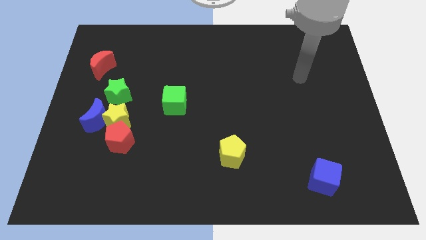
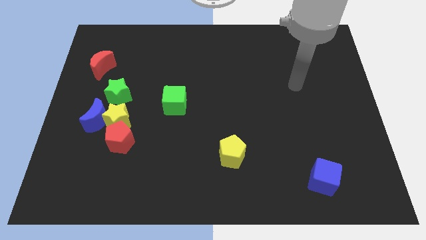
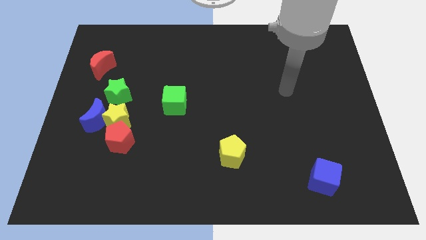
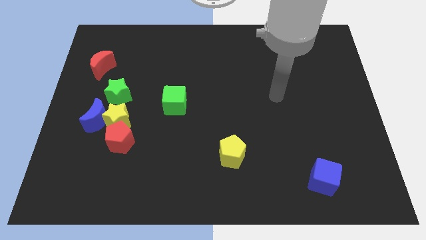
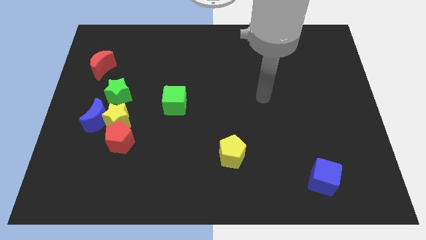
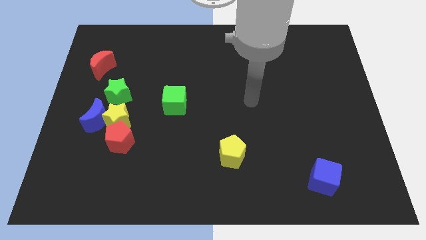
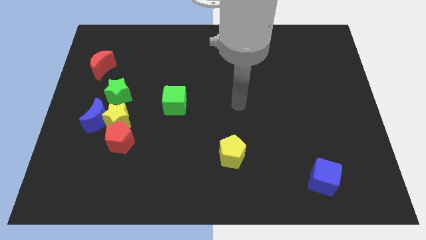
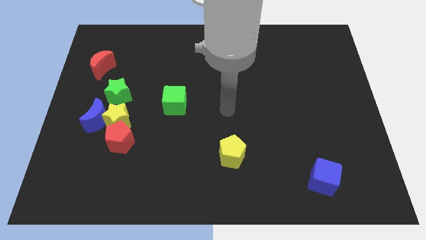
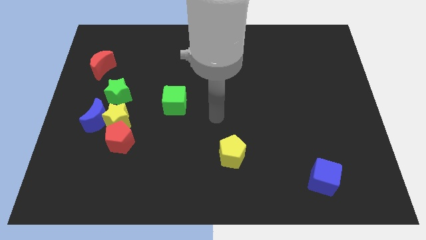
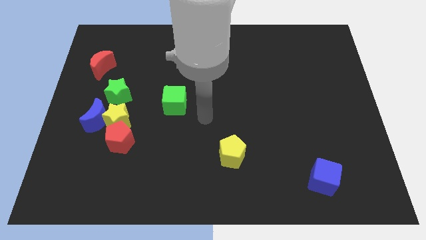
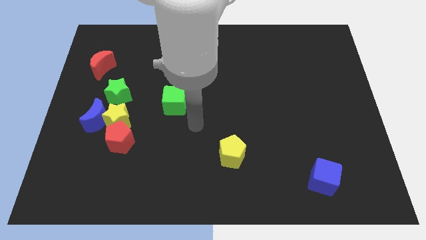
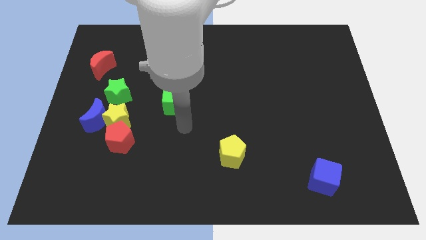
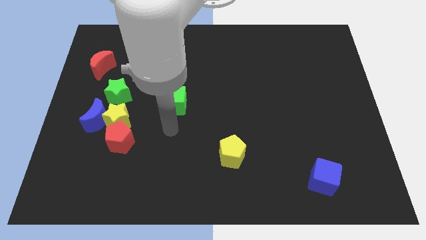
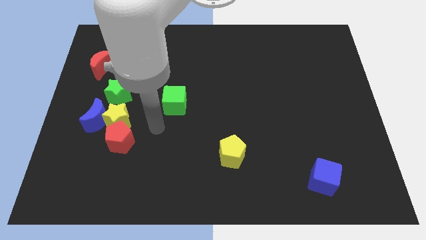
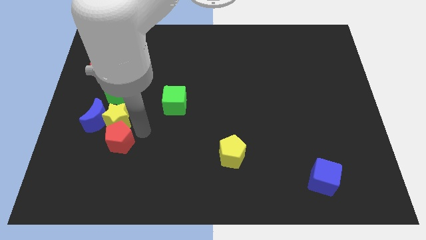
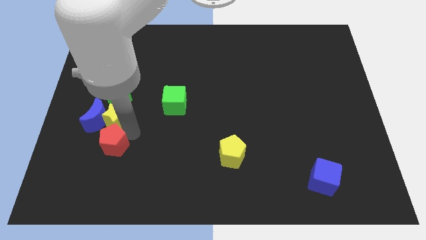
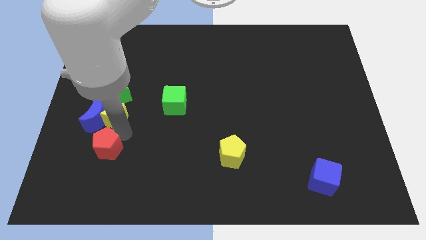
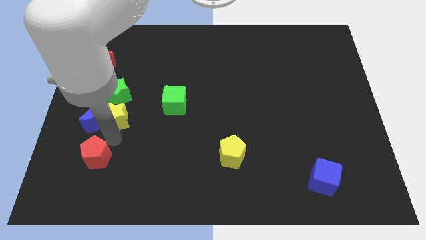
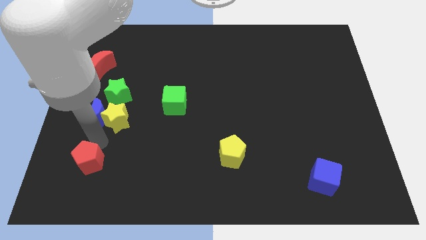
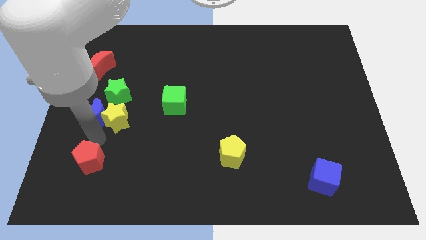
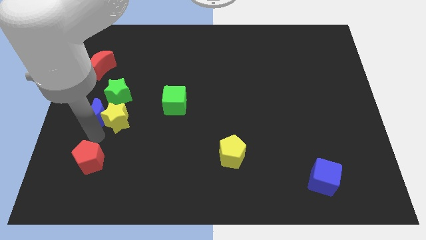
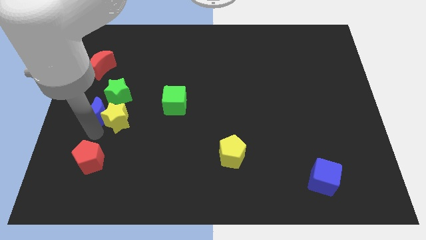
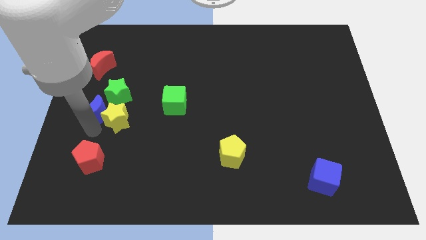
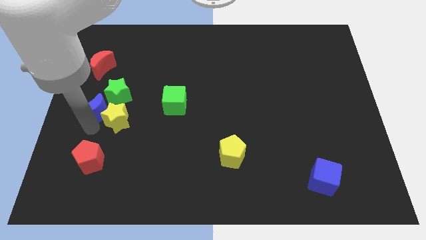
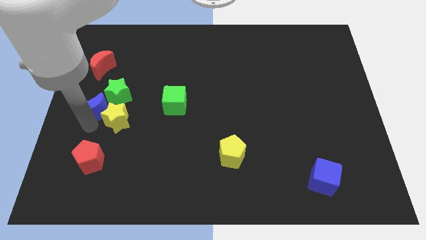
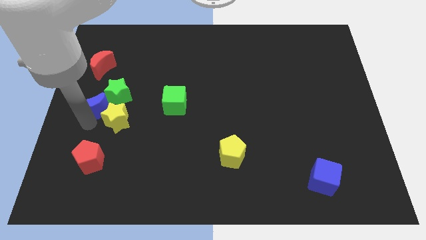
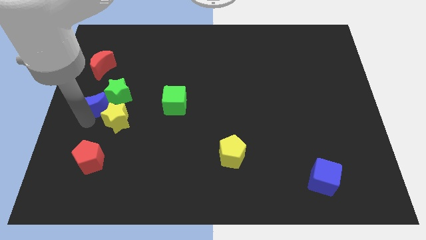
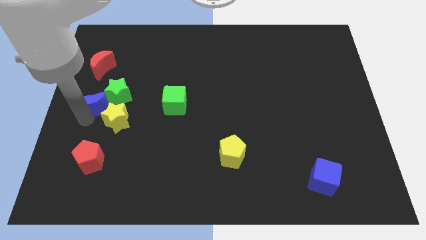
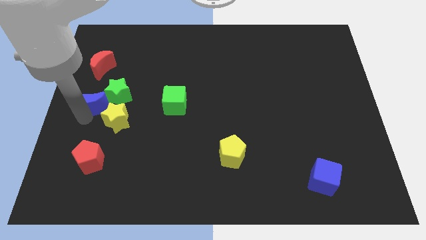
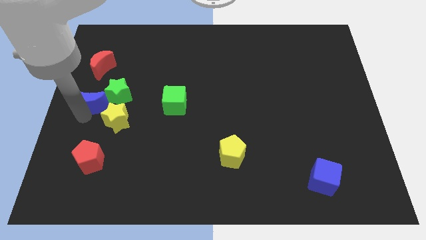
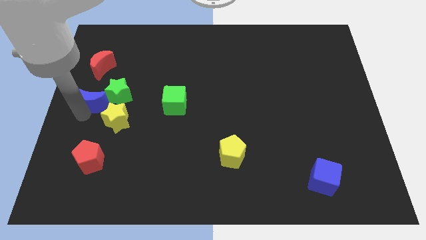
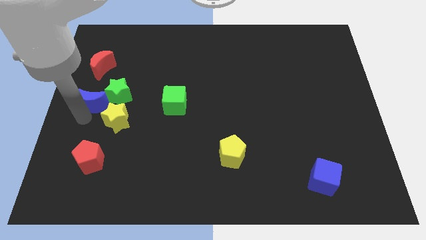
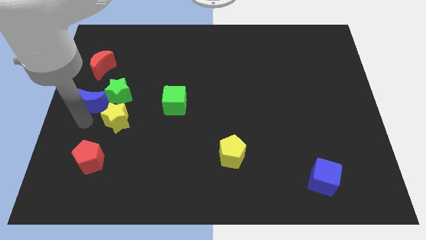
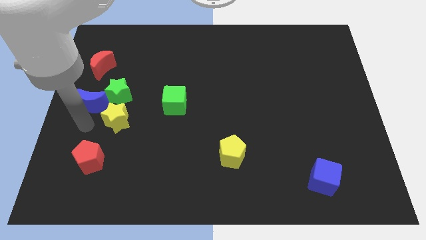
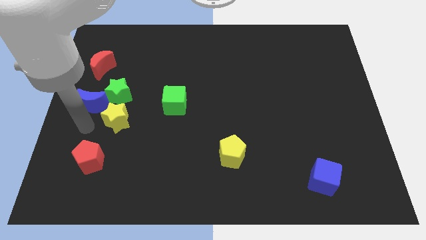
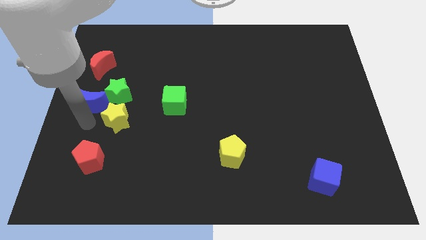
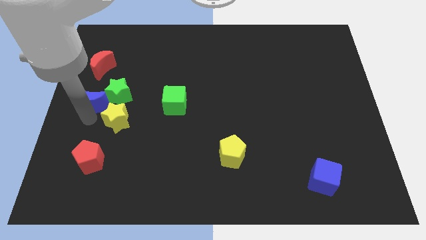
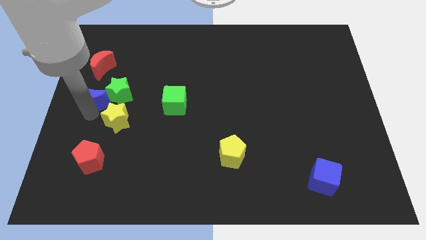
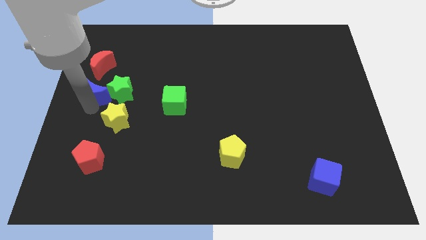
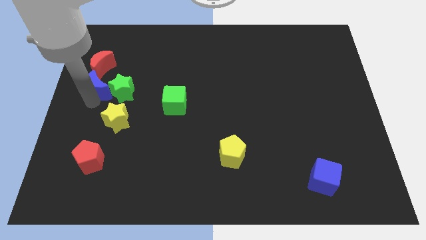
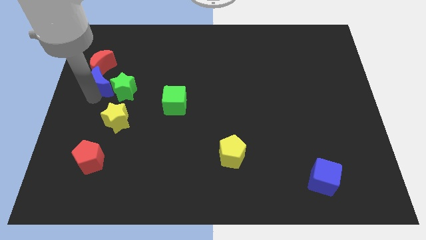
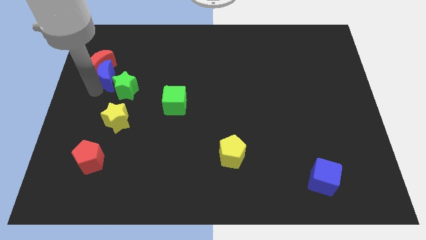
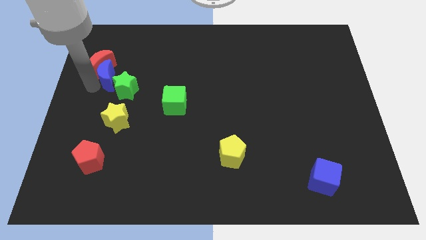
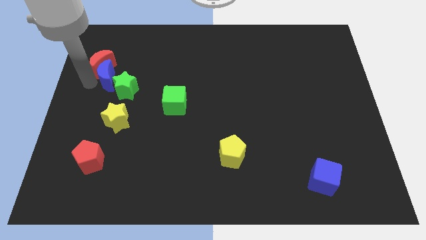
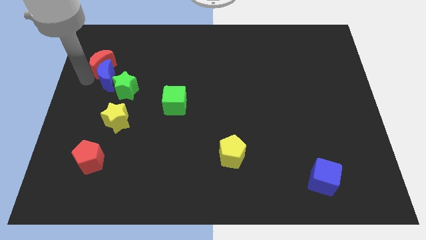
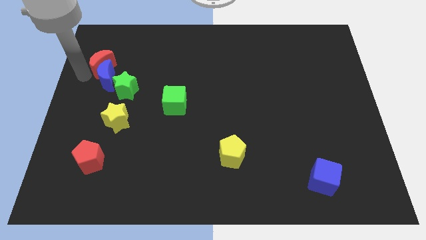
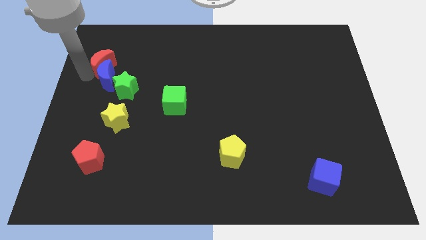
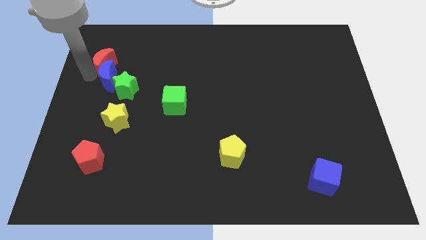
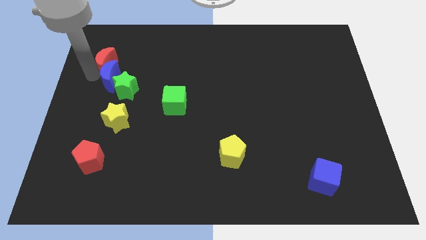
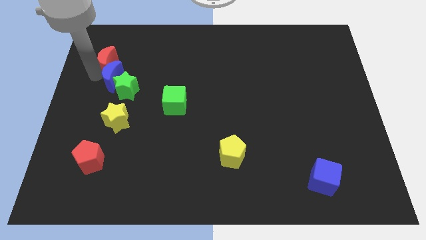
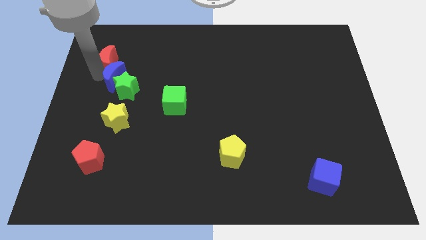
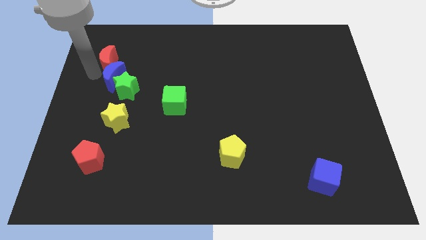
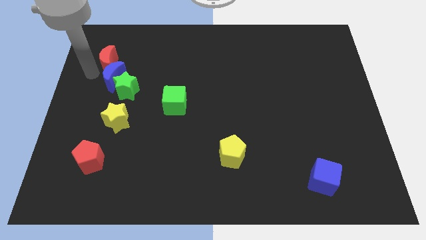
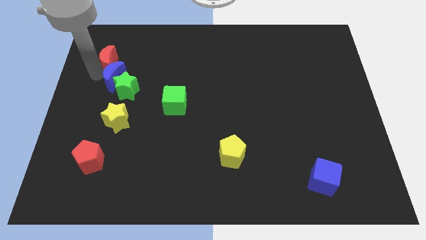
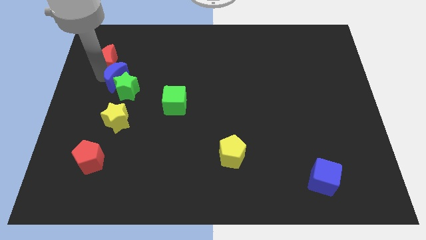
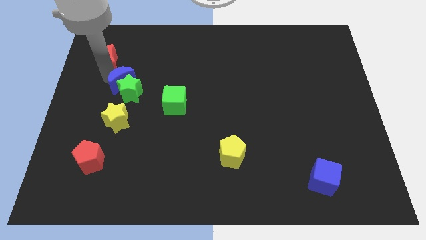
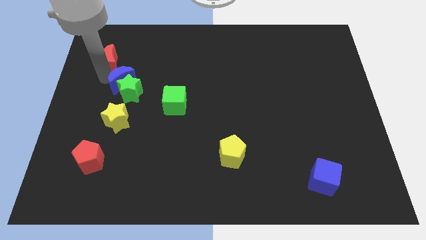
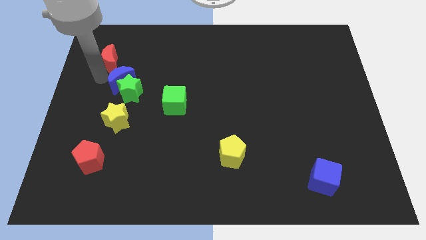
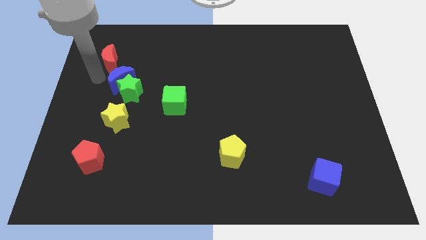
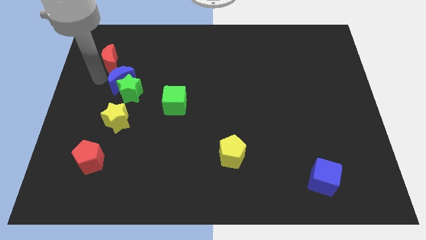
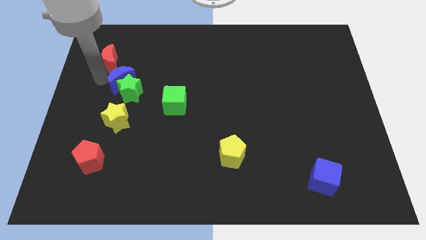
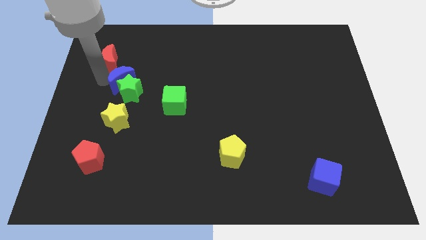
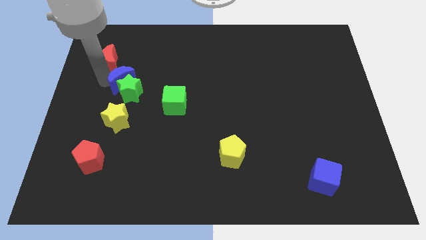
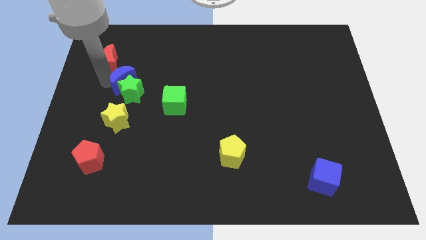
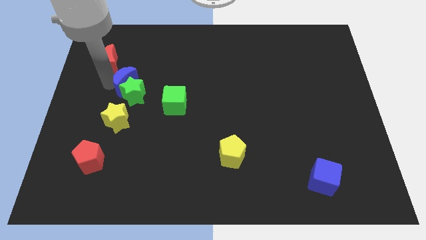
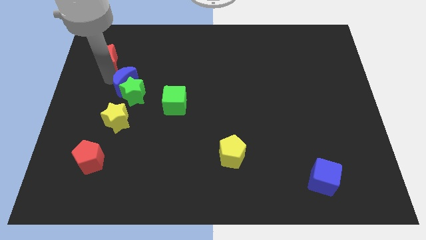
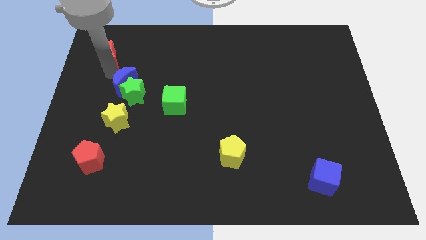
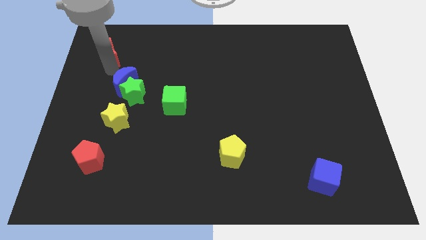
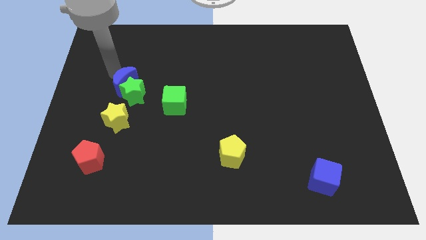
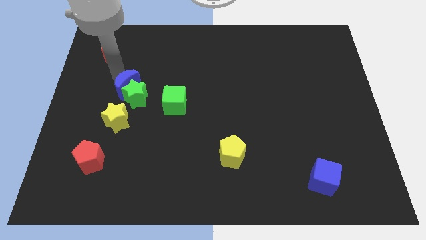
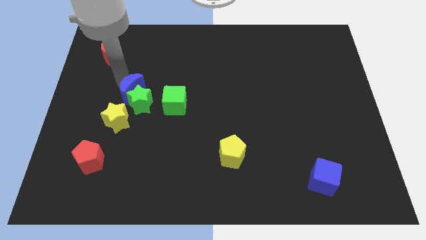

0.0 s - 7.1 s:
slide the blue moon diagonally up and to the right of the yellow star
